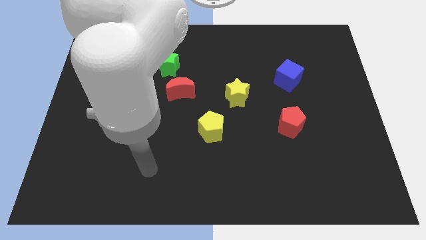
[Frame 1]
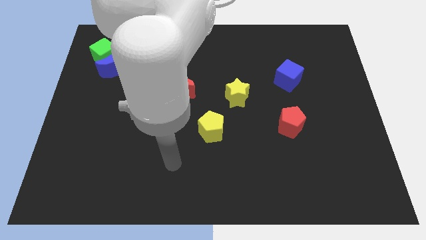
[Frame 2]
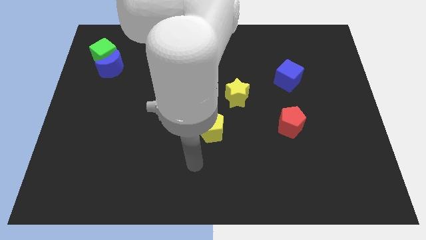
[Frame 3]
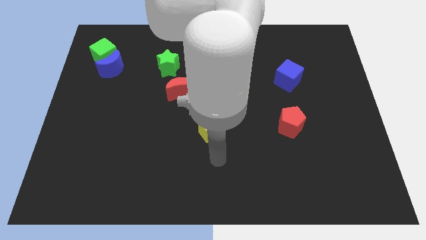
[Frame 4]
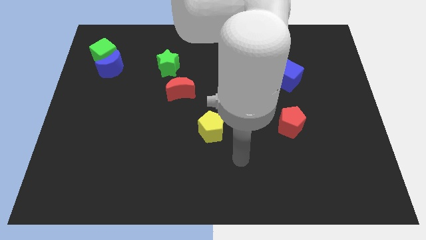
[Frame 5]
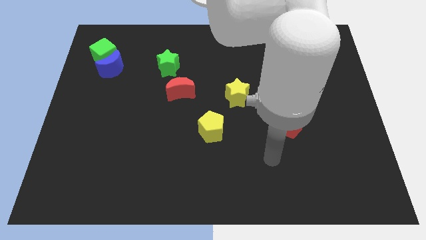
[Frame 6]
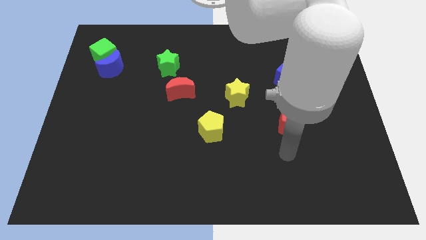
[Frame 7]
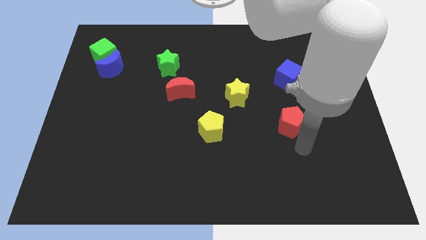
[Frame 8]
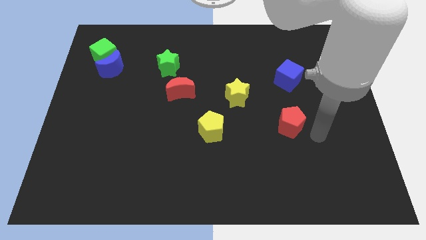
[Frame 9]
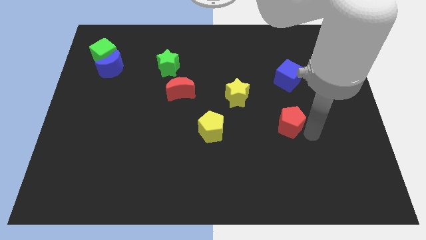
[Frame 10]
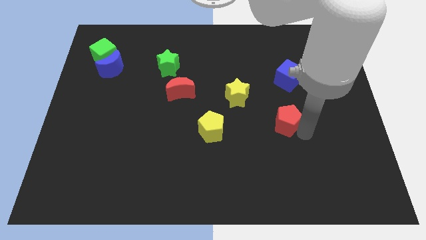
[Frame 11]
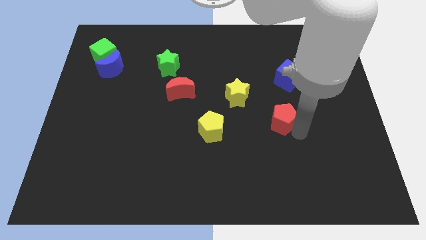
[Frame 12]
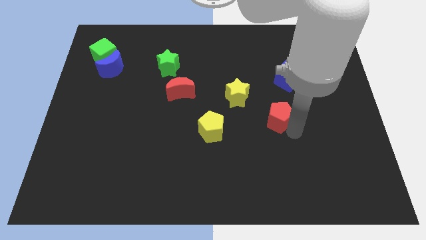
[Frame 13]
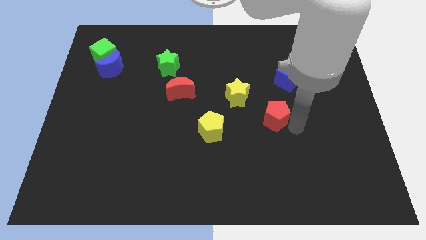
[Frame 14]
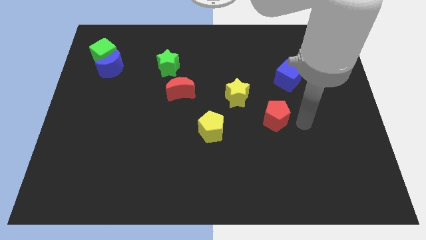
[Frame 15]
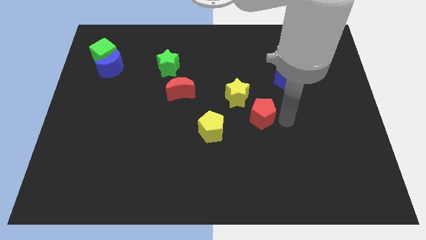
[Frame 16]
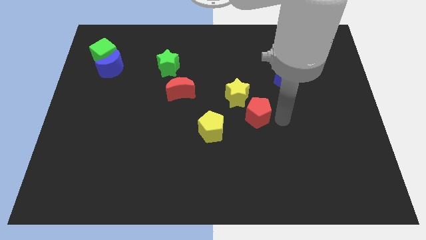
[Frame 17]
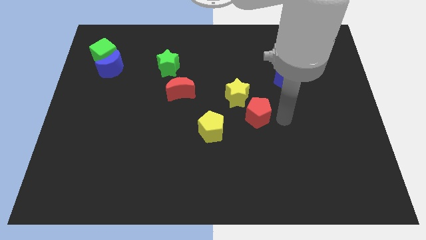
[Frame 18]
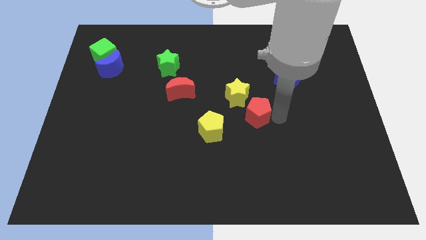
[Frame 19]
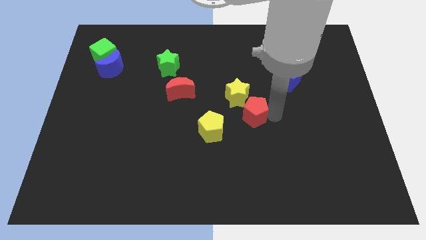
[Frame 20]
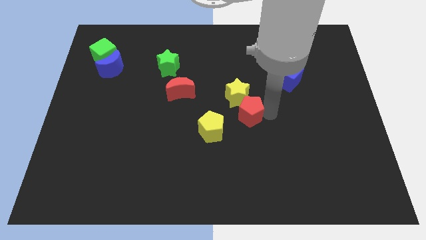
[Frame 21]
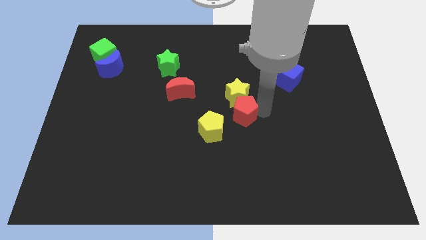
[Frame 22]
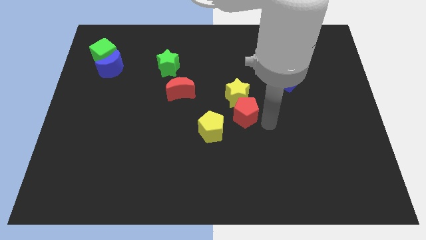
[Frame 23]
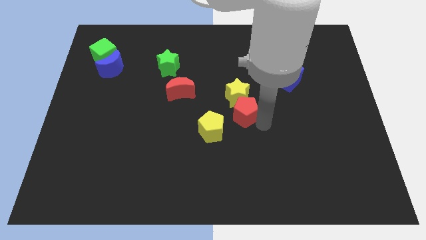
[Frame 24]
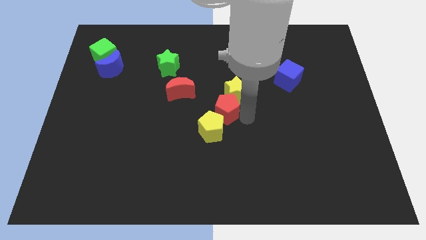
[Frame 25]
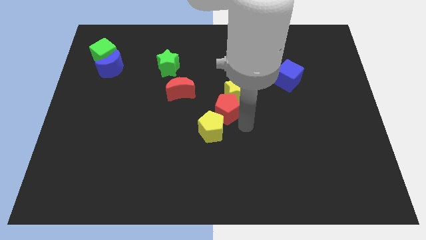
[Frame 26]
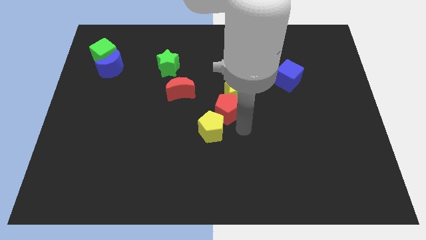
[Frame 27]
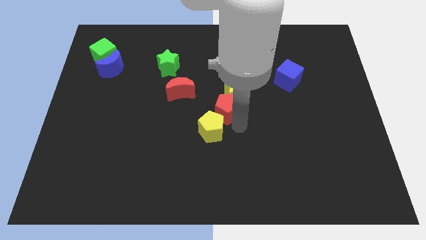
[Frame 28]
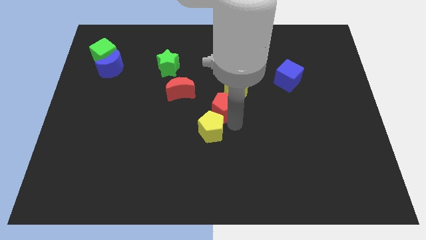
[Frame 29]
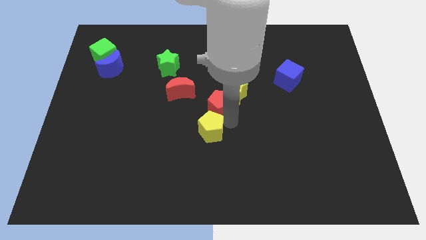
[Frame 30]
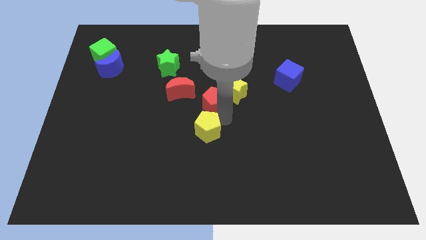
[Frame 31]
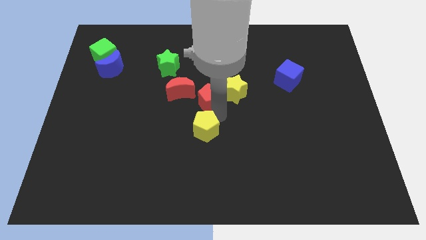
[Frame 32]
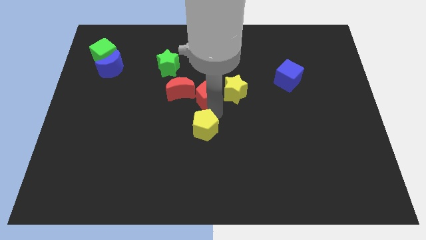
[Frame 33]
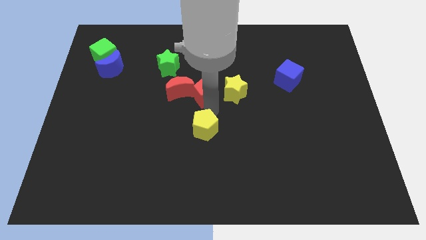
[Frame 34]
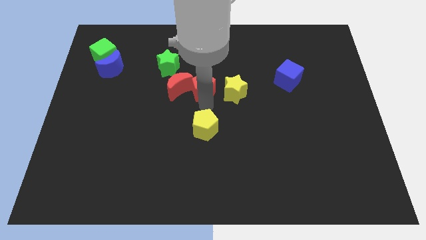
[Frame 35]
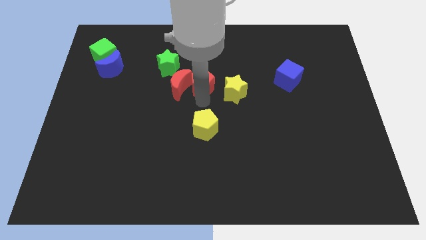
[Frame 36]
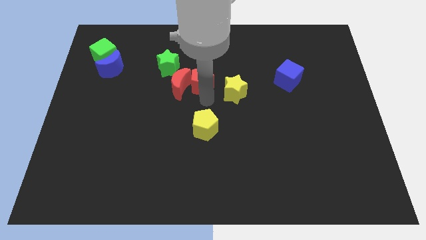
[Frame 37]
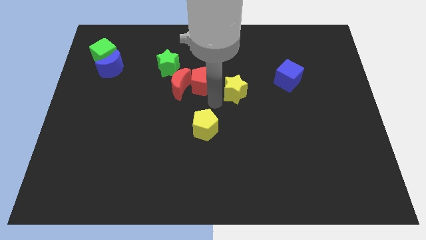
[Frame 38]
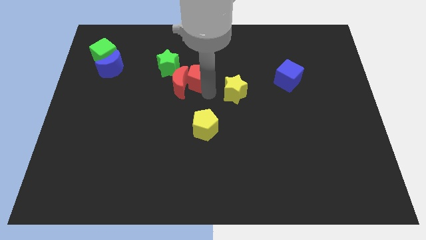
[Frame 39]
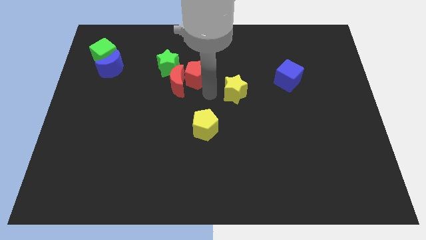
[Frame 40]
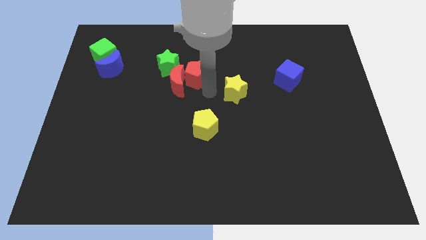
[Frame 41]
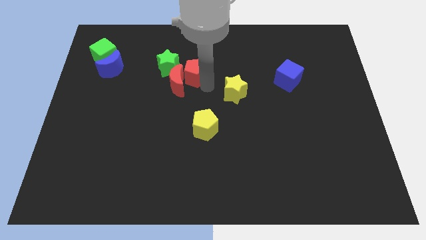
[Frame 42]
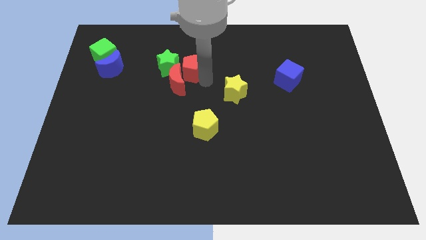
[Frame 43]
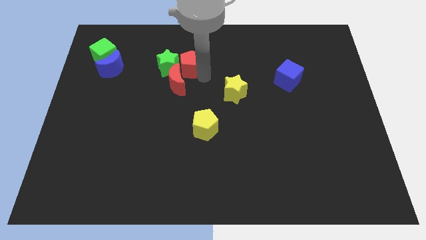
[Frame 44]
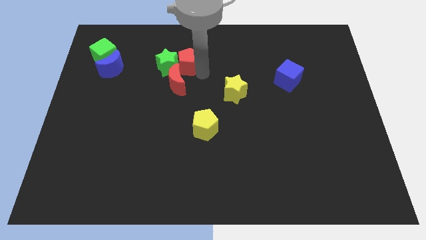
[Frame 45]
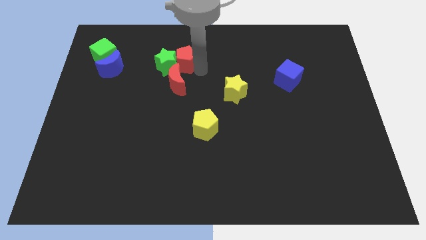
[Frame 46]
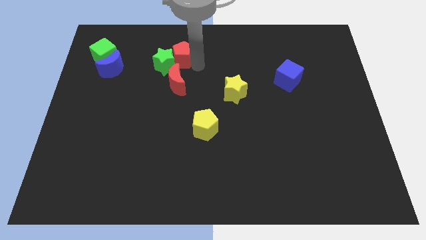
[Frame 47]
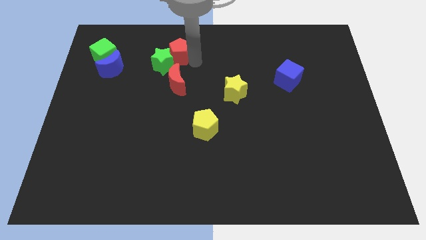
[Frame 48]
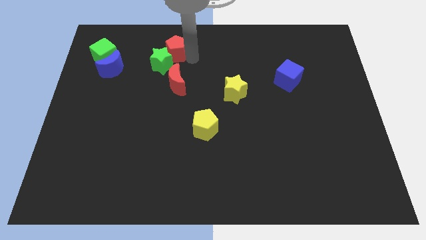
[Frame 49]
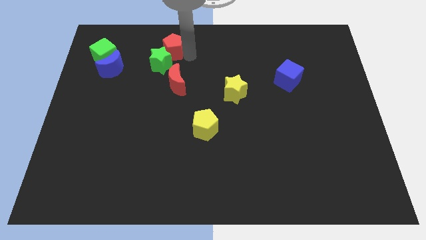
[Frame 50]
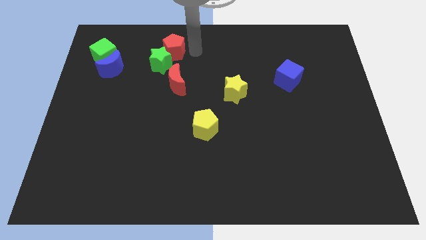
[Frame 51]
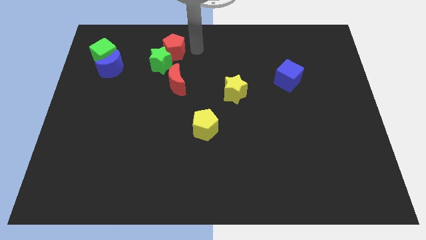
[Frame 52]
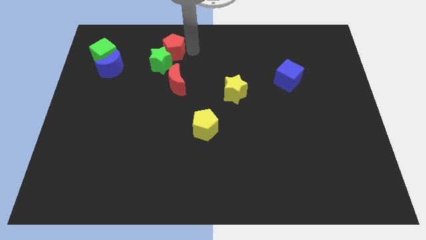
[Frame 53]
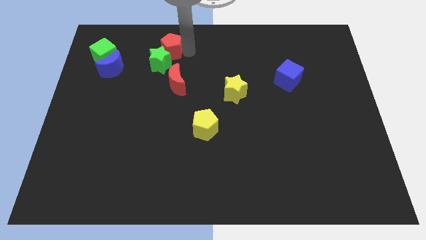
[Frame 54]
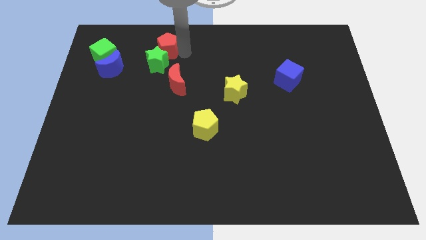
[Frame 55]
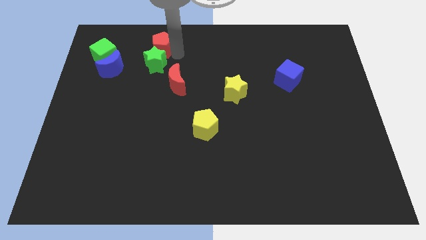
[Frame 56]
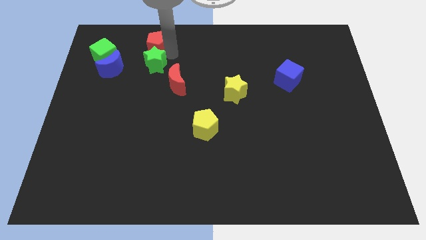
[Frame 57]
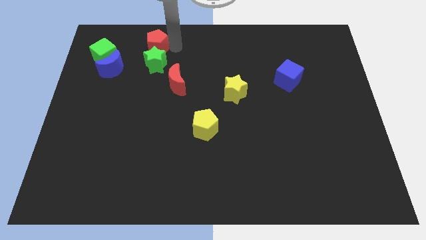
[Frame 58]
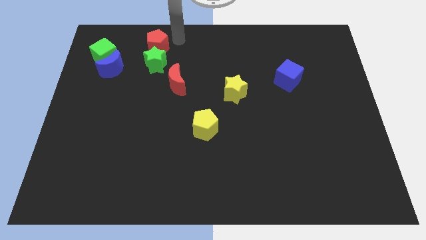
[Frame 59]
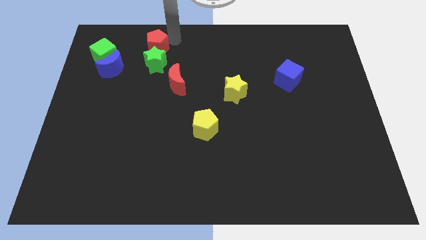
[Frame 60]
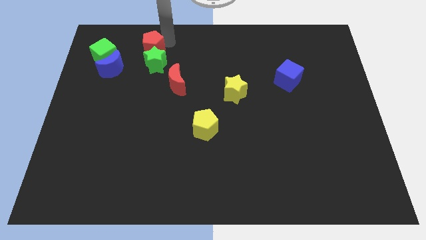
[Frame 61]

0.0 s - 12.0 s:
put the red pentagon diagonally up and to the right of the blue moon

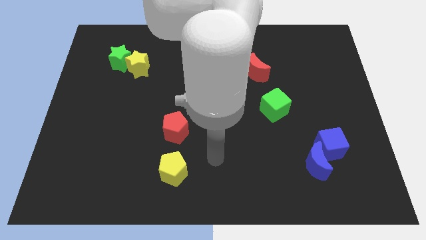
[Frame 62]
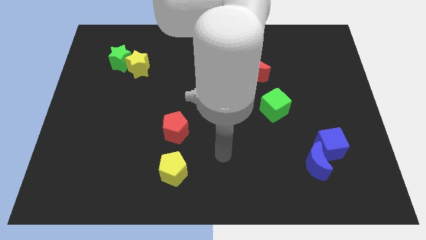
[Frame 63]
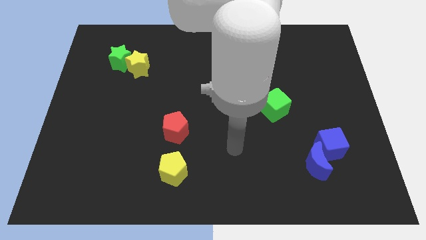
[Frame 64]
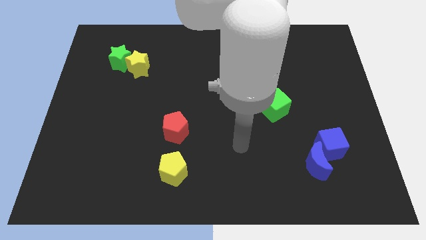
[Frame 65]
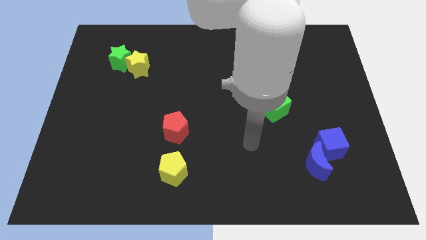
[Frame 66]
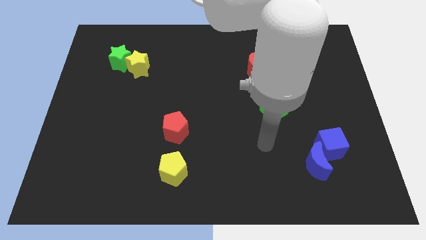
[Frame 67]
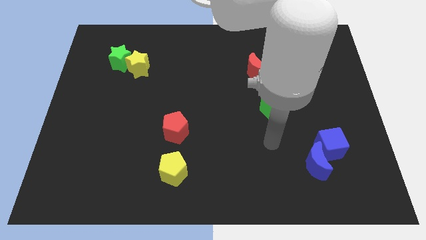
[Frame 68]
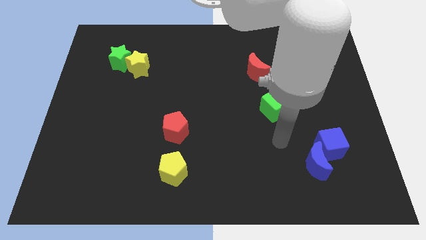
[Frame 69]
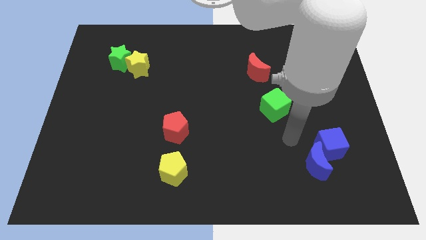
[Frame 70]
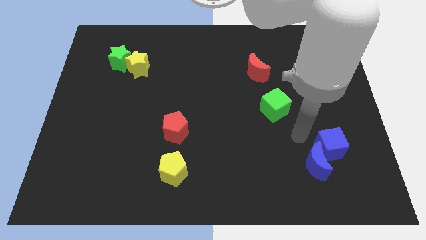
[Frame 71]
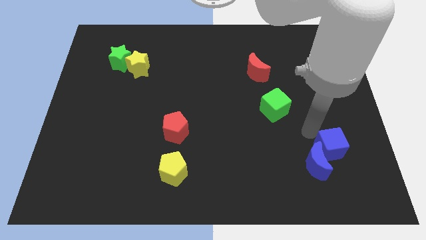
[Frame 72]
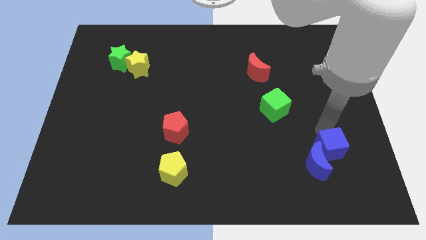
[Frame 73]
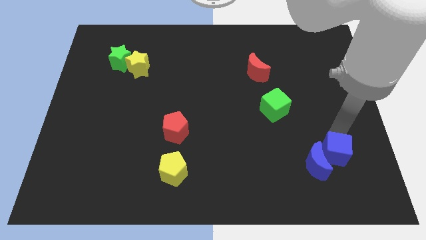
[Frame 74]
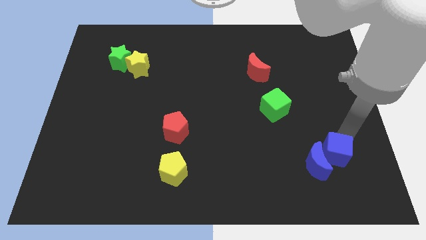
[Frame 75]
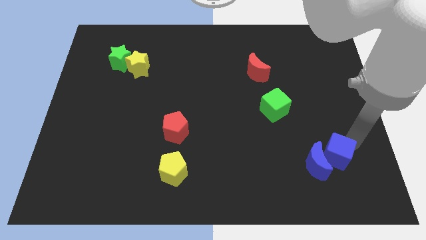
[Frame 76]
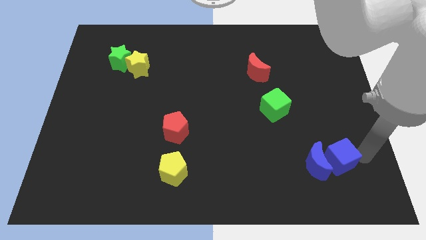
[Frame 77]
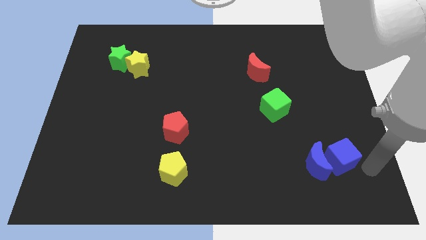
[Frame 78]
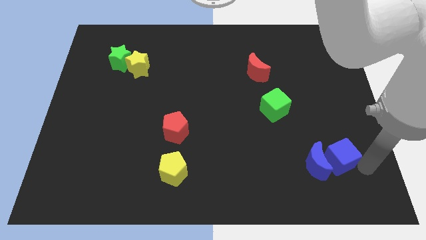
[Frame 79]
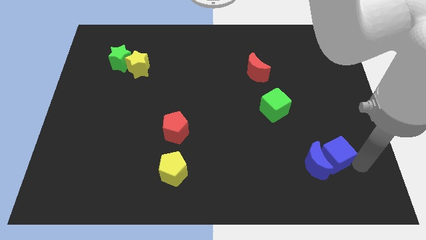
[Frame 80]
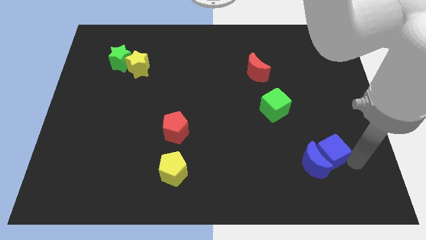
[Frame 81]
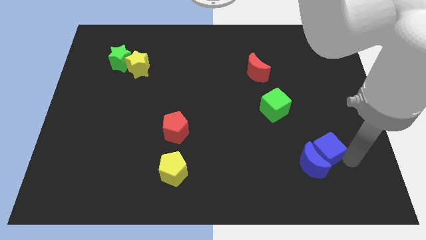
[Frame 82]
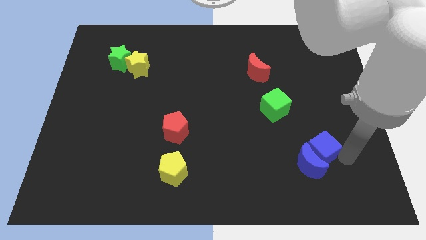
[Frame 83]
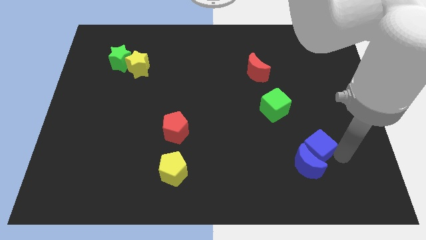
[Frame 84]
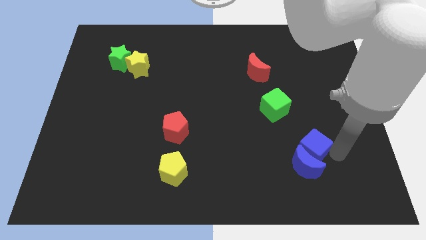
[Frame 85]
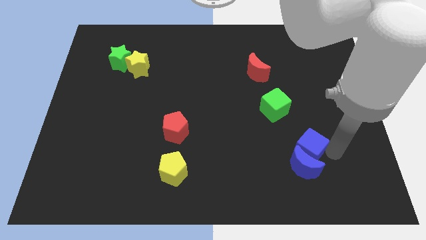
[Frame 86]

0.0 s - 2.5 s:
move the blue cube diagonally up and to the left of the blue moon
